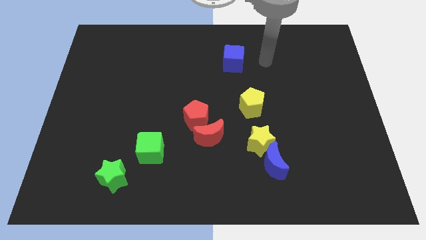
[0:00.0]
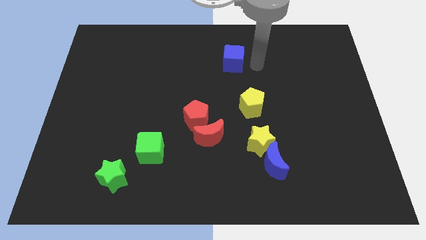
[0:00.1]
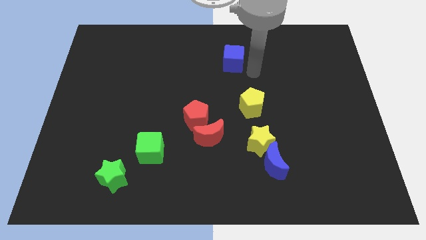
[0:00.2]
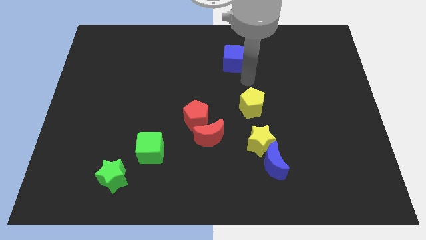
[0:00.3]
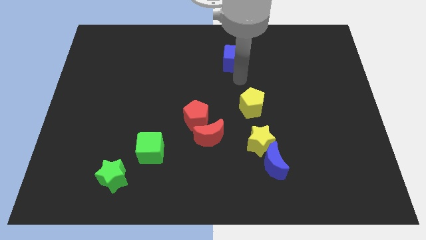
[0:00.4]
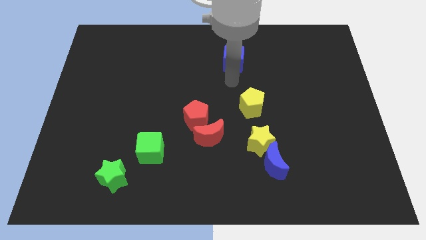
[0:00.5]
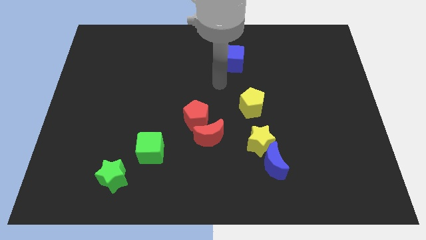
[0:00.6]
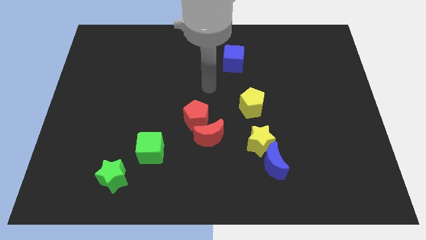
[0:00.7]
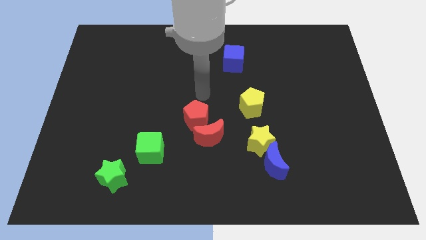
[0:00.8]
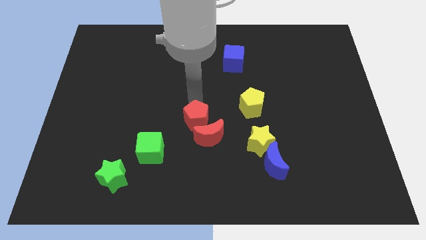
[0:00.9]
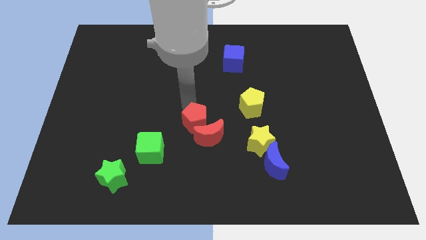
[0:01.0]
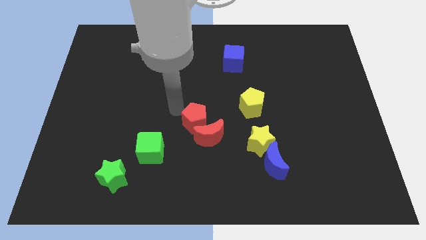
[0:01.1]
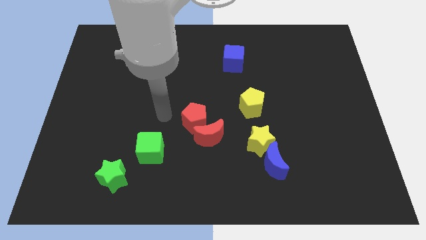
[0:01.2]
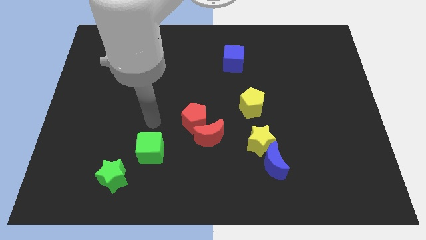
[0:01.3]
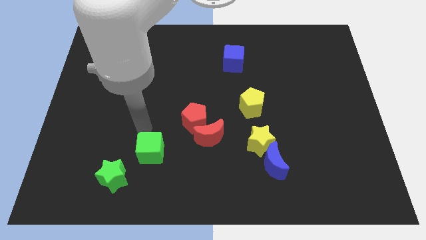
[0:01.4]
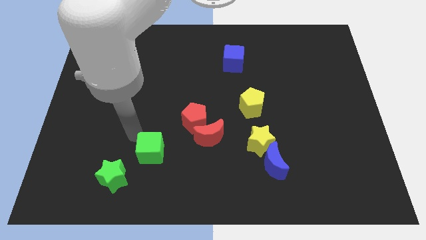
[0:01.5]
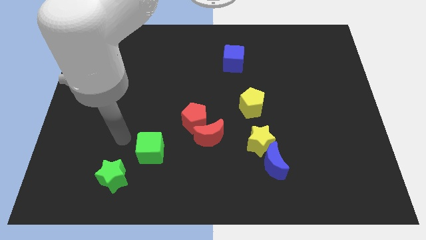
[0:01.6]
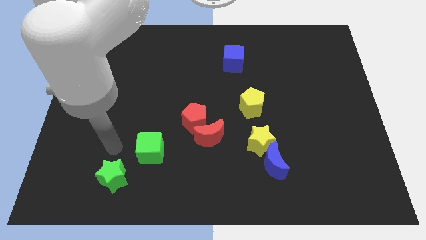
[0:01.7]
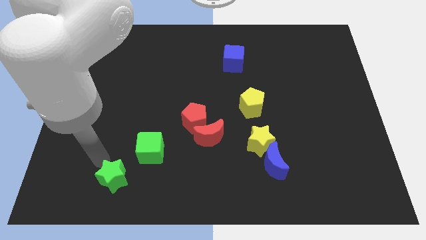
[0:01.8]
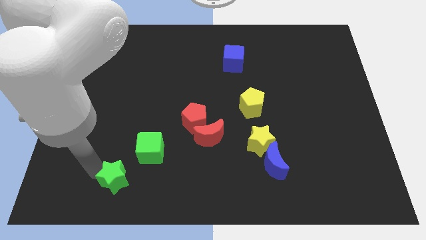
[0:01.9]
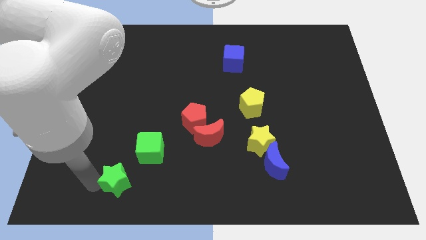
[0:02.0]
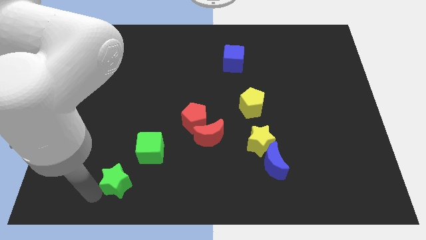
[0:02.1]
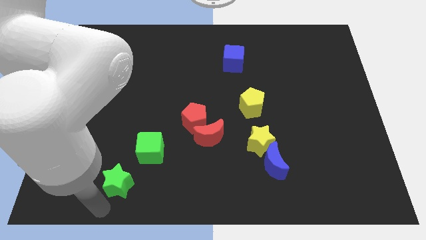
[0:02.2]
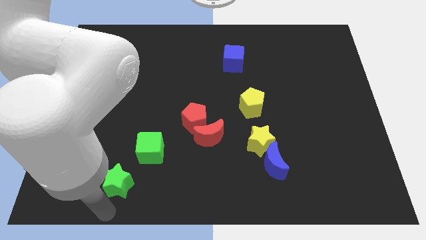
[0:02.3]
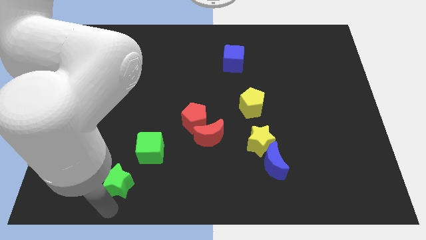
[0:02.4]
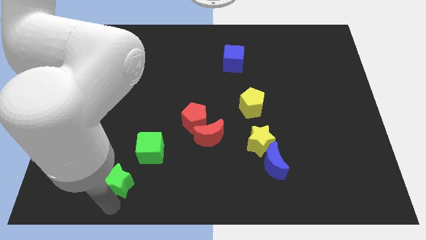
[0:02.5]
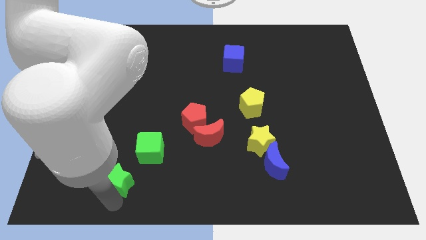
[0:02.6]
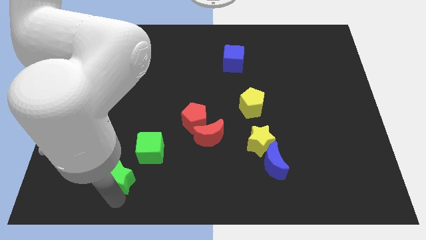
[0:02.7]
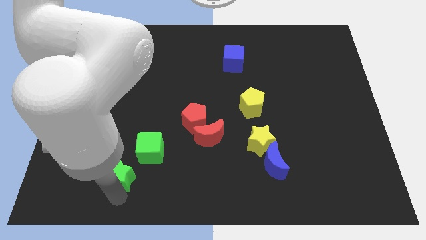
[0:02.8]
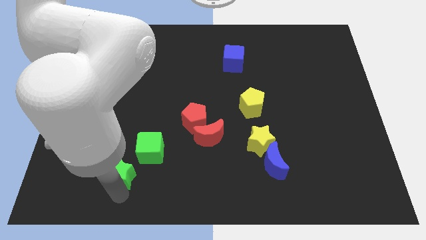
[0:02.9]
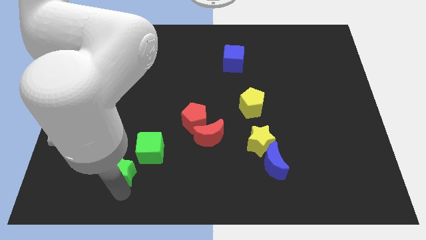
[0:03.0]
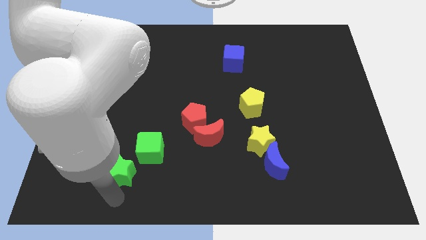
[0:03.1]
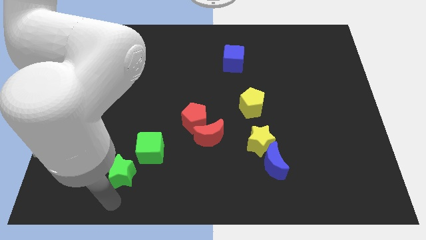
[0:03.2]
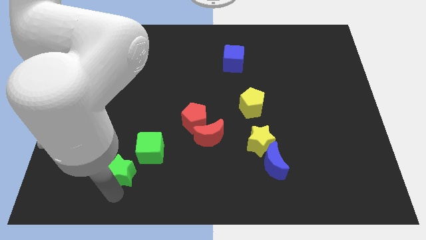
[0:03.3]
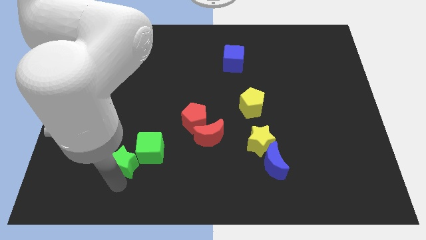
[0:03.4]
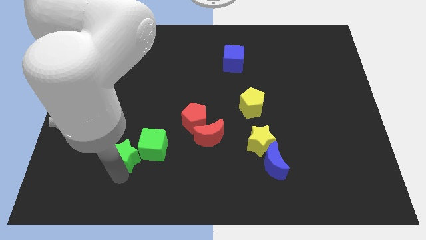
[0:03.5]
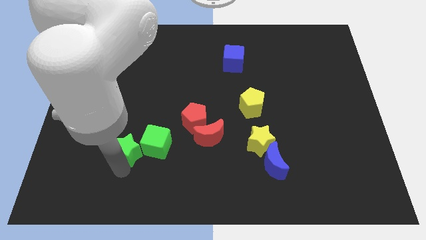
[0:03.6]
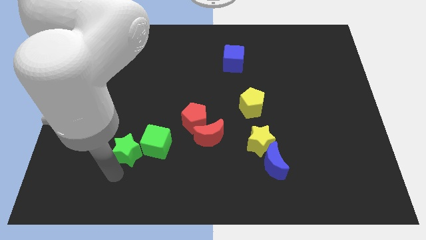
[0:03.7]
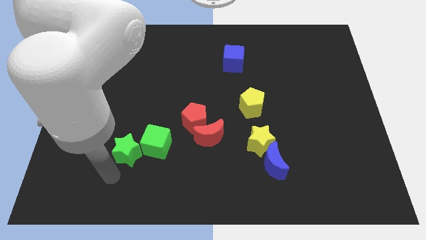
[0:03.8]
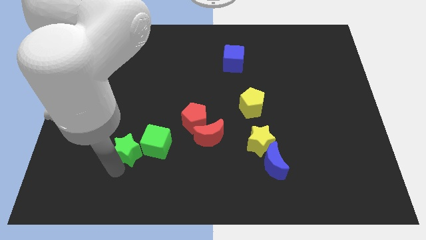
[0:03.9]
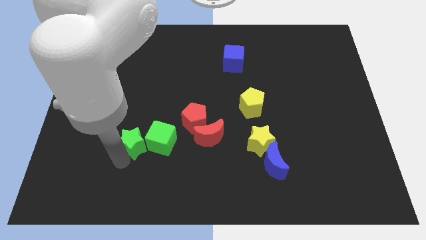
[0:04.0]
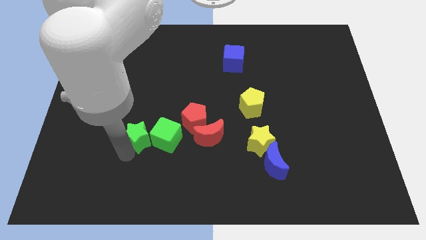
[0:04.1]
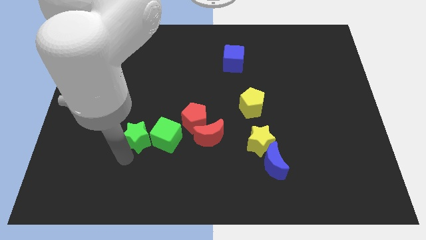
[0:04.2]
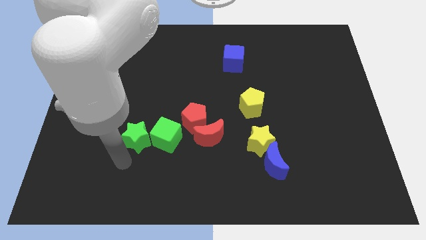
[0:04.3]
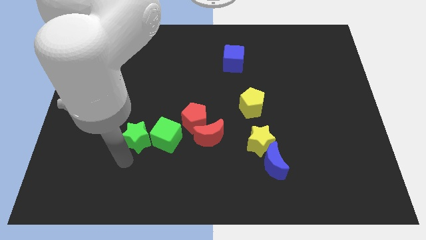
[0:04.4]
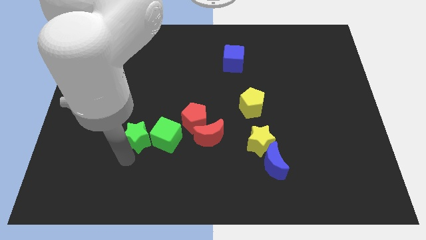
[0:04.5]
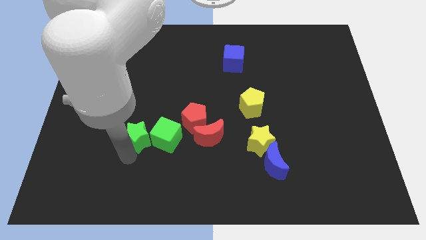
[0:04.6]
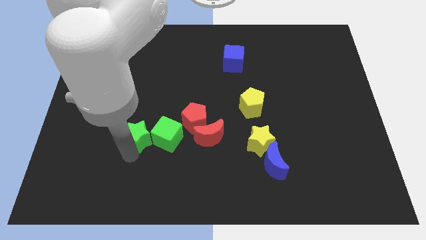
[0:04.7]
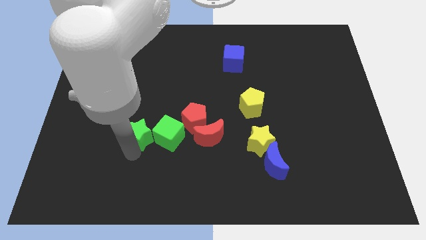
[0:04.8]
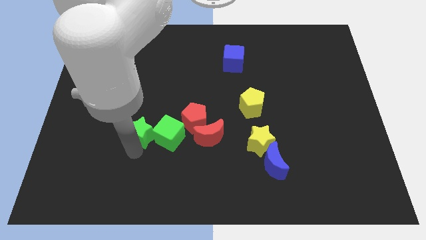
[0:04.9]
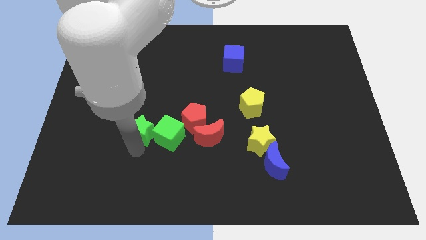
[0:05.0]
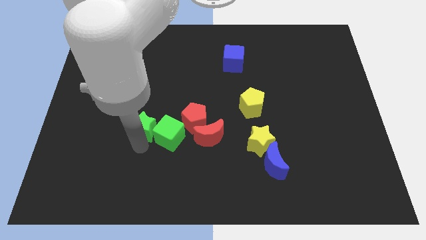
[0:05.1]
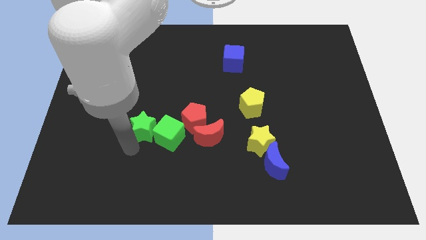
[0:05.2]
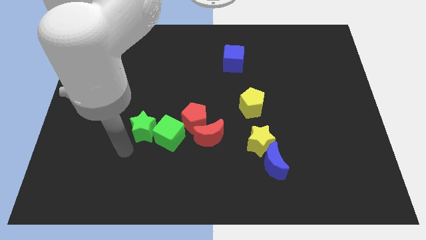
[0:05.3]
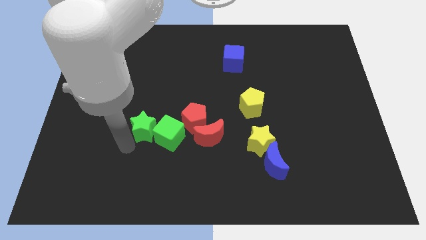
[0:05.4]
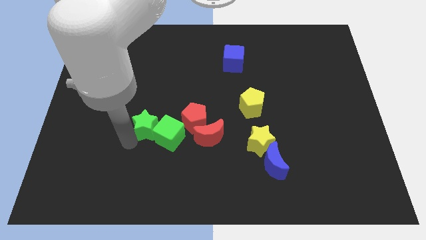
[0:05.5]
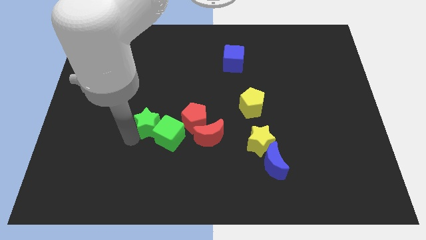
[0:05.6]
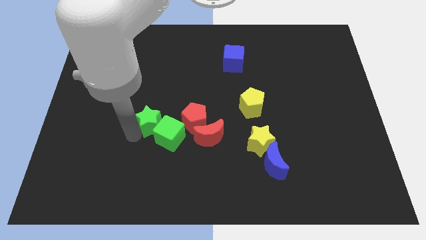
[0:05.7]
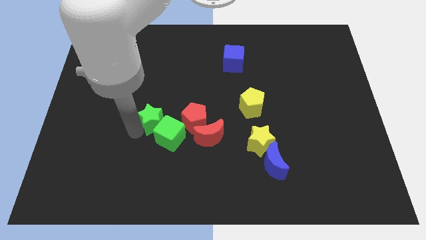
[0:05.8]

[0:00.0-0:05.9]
put the green star to the top of the green cube

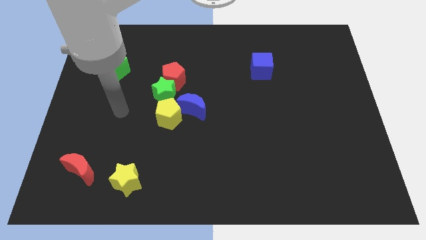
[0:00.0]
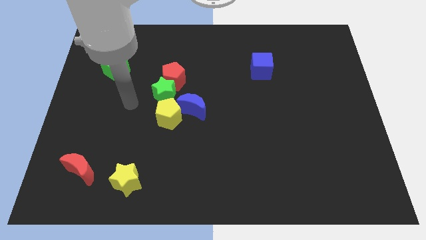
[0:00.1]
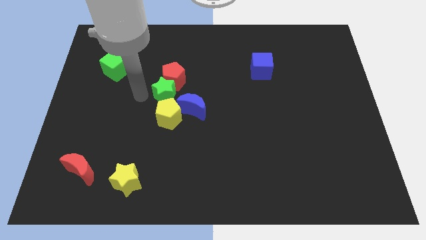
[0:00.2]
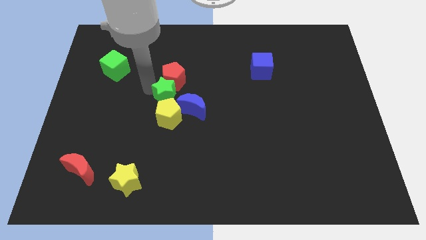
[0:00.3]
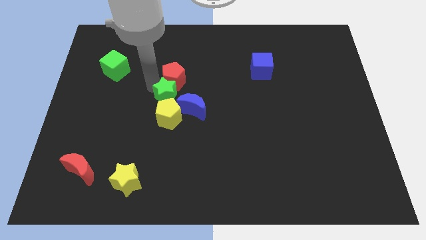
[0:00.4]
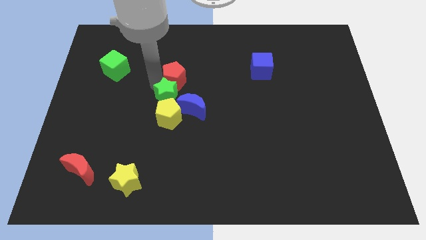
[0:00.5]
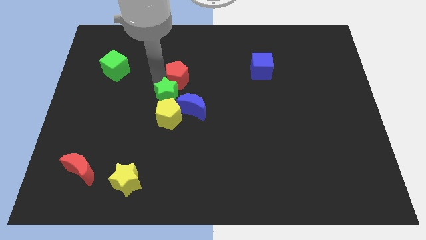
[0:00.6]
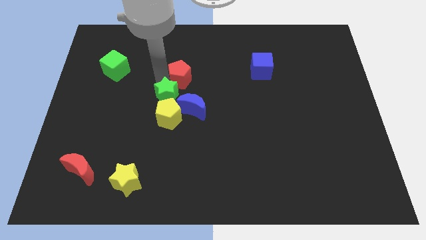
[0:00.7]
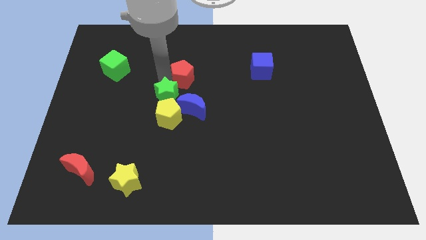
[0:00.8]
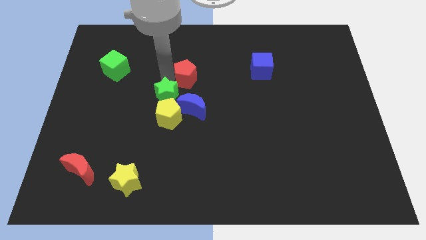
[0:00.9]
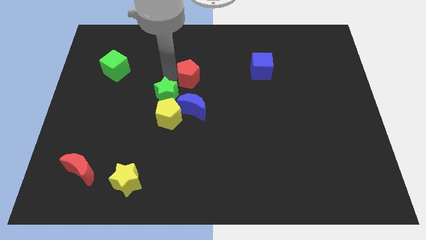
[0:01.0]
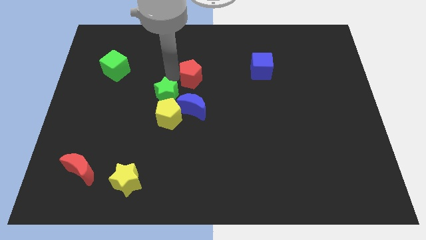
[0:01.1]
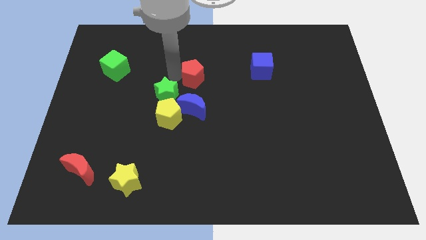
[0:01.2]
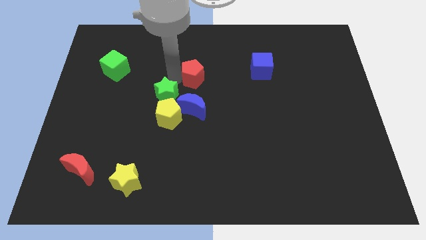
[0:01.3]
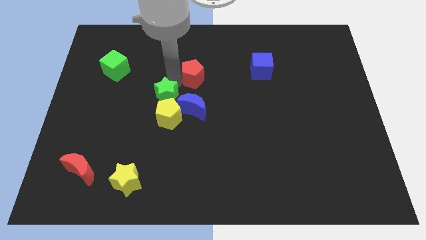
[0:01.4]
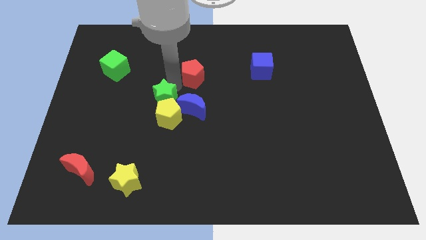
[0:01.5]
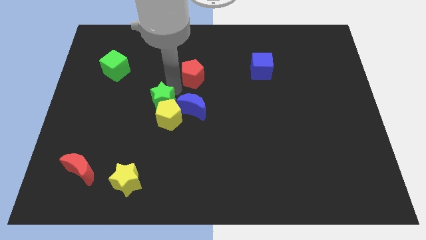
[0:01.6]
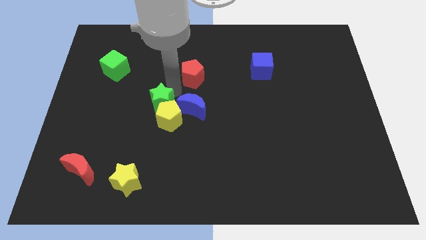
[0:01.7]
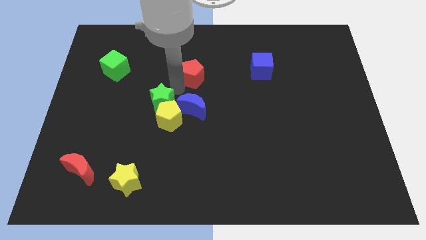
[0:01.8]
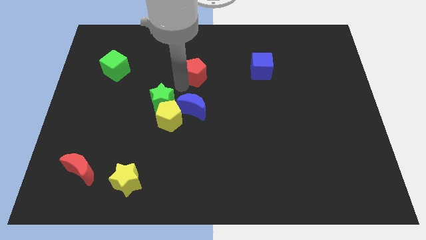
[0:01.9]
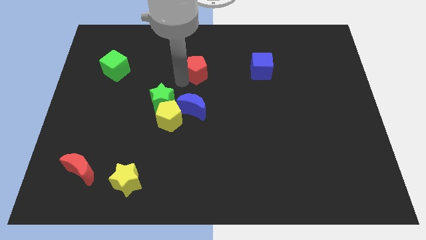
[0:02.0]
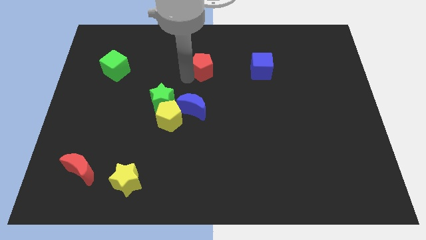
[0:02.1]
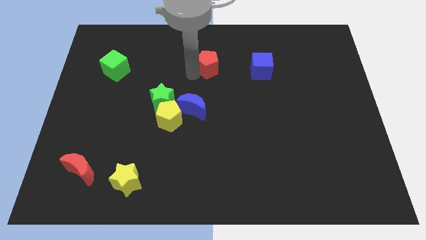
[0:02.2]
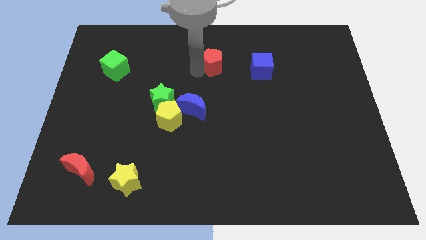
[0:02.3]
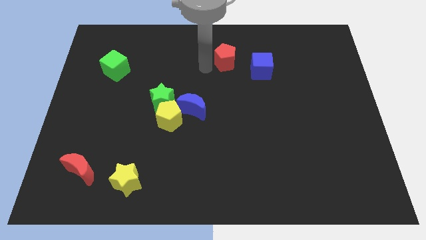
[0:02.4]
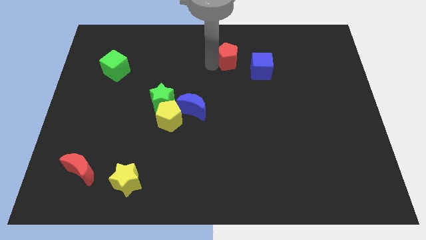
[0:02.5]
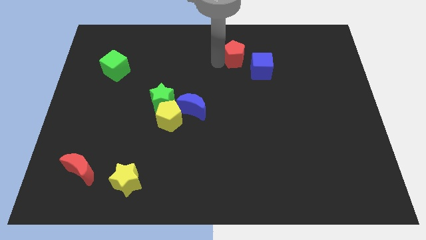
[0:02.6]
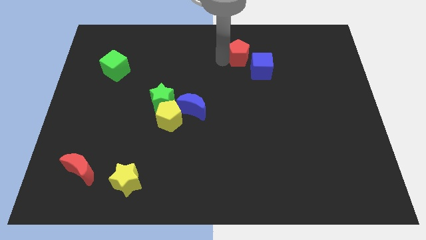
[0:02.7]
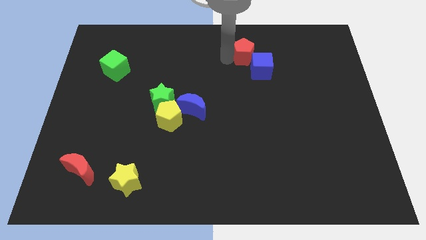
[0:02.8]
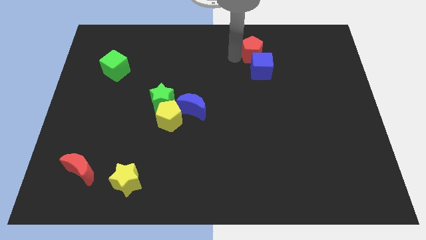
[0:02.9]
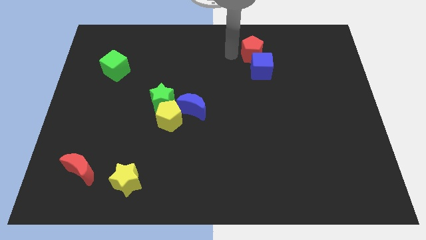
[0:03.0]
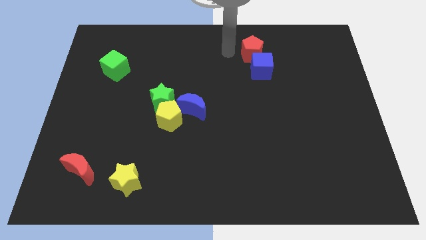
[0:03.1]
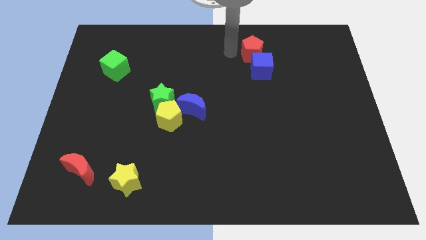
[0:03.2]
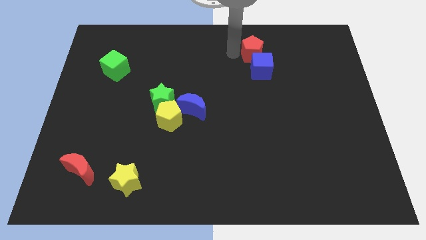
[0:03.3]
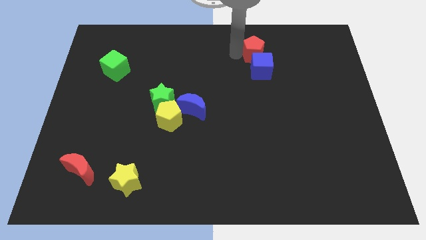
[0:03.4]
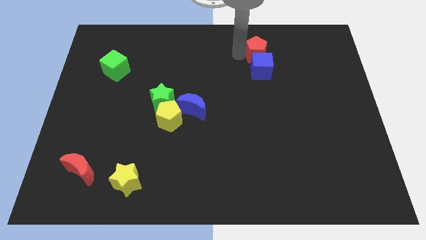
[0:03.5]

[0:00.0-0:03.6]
slide the red pentagon to the top right of the blue cube
